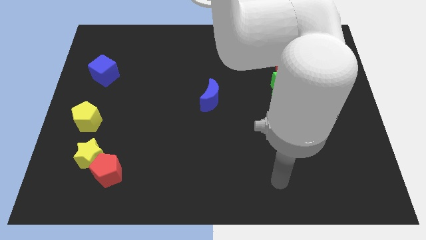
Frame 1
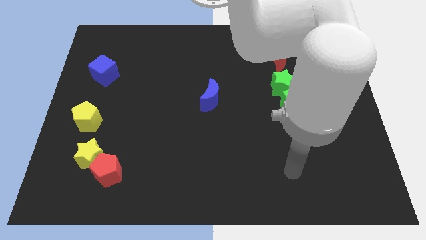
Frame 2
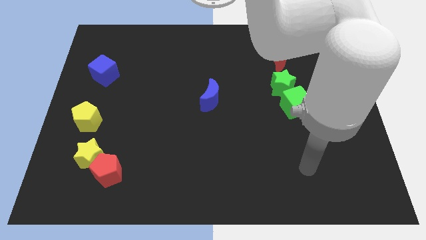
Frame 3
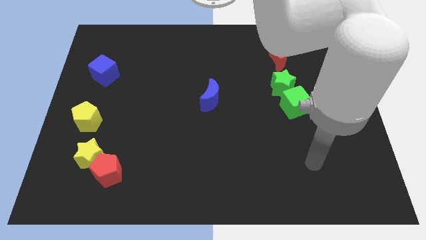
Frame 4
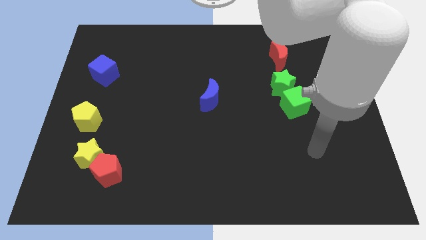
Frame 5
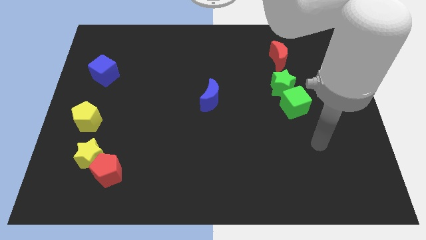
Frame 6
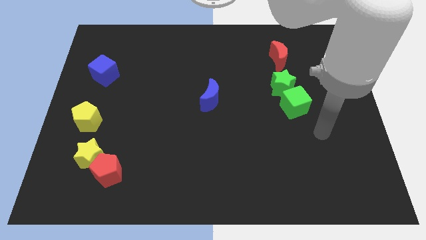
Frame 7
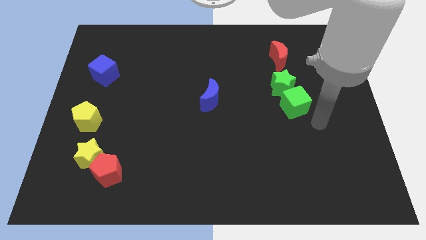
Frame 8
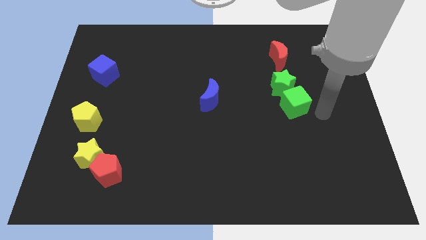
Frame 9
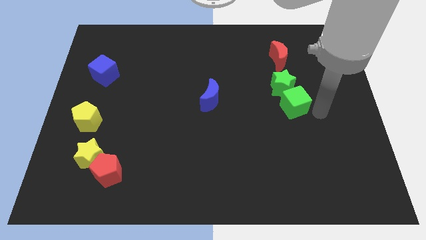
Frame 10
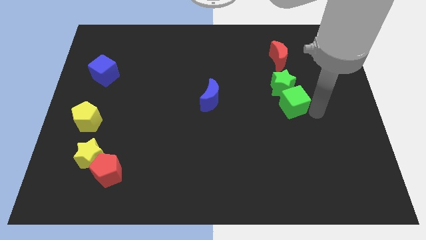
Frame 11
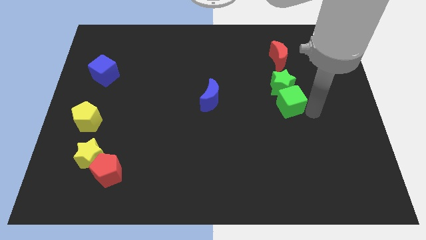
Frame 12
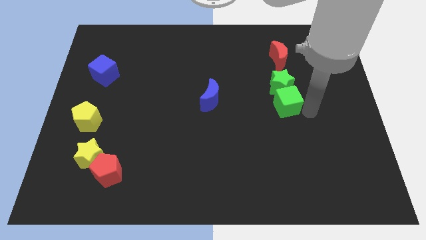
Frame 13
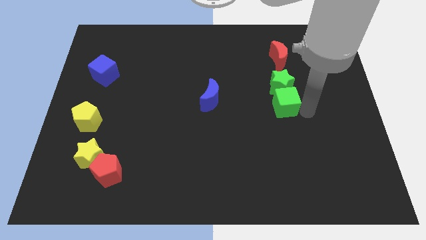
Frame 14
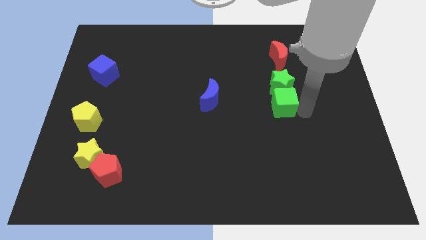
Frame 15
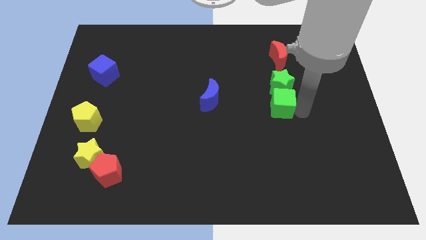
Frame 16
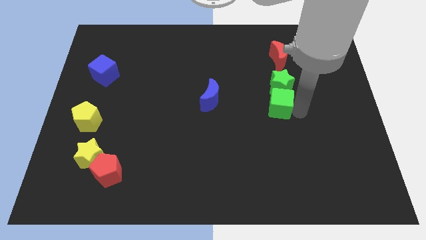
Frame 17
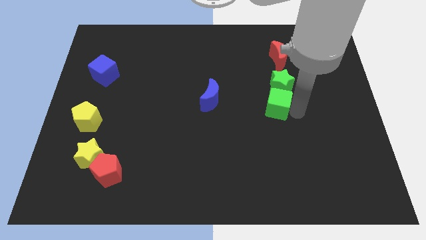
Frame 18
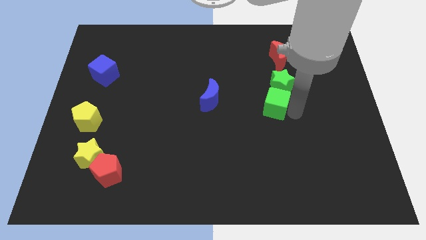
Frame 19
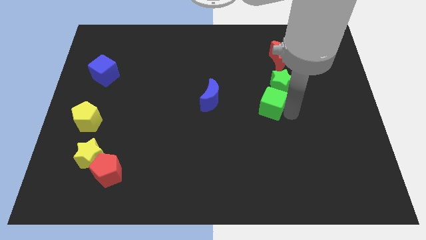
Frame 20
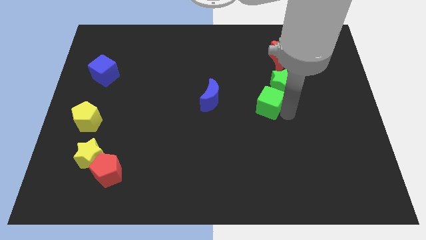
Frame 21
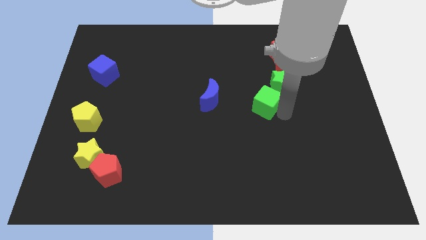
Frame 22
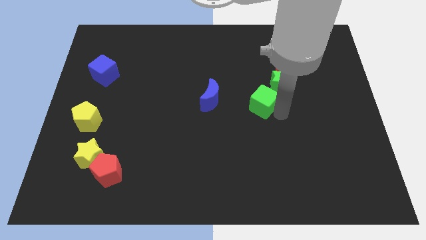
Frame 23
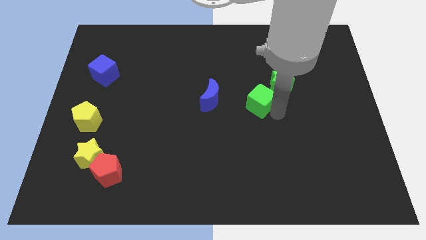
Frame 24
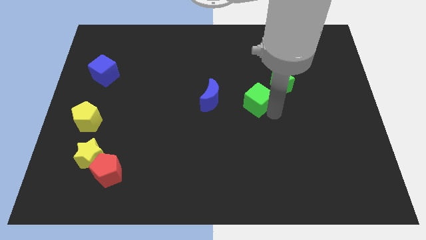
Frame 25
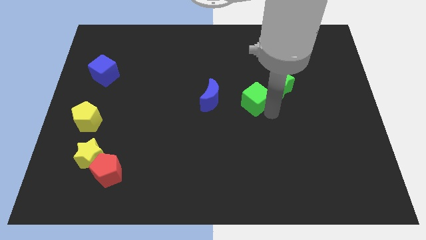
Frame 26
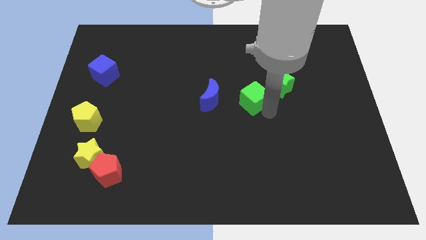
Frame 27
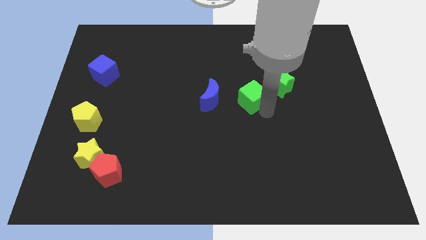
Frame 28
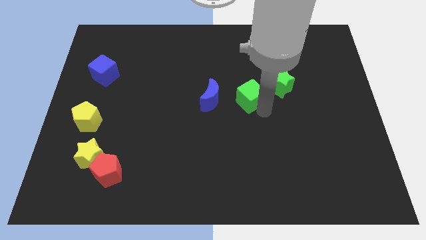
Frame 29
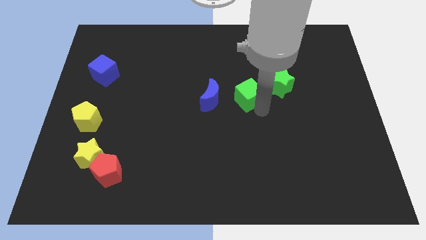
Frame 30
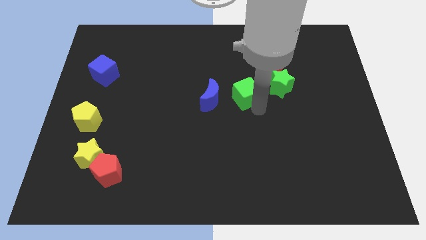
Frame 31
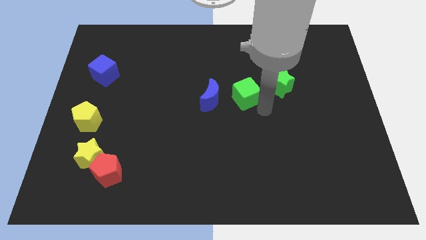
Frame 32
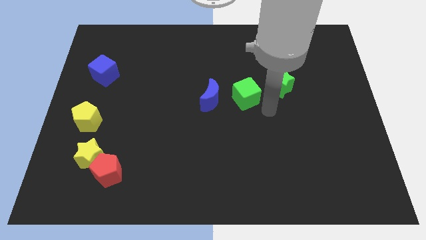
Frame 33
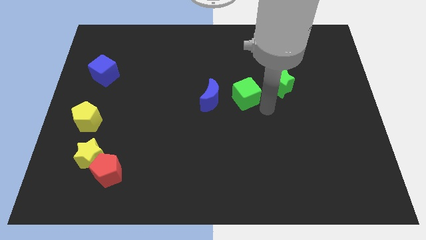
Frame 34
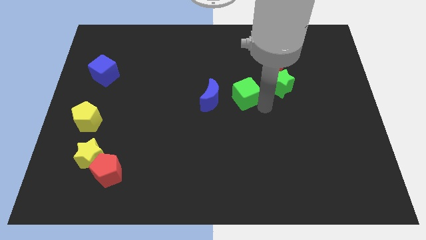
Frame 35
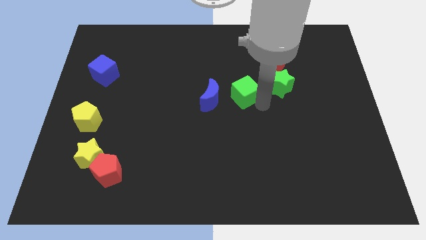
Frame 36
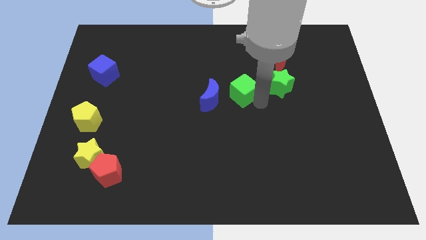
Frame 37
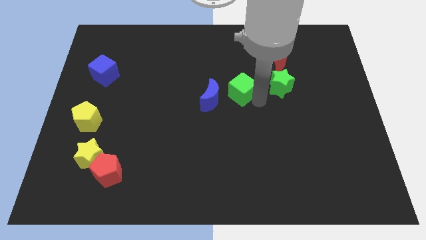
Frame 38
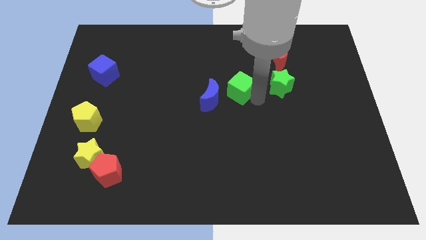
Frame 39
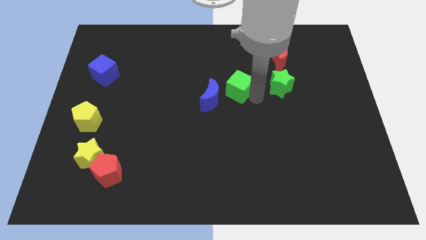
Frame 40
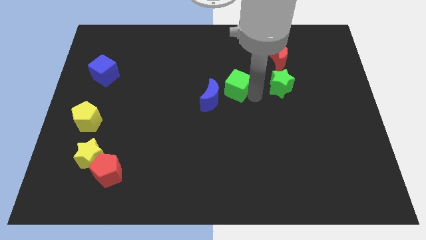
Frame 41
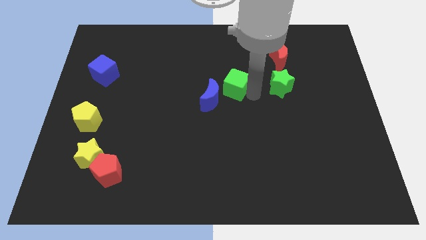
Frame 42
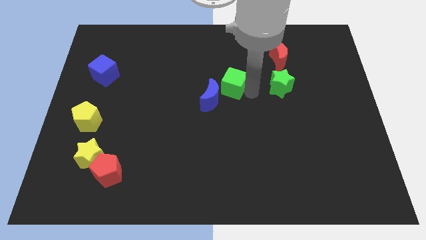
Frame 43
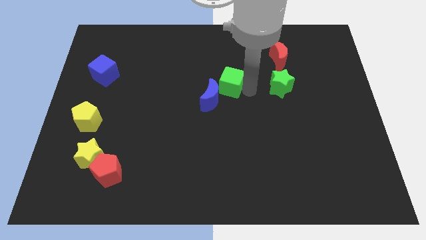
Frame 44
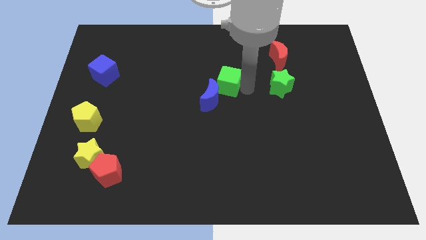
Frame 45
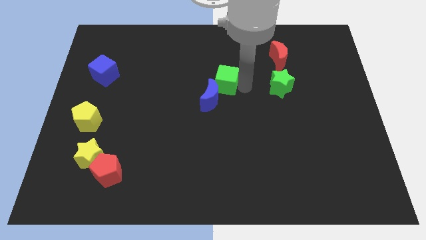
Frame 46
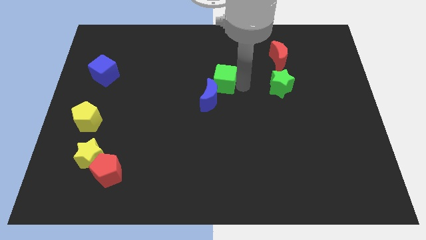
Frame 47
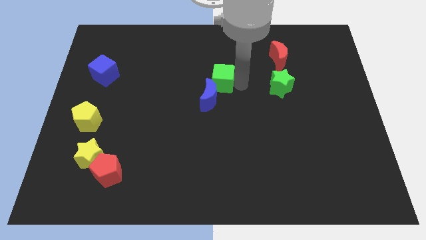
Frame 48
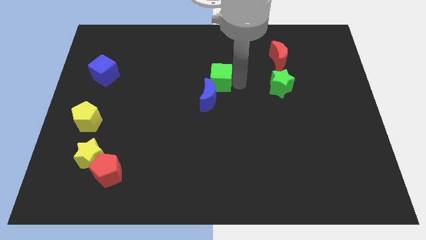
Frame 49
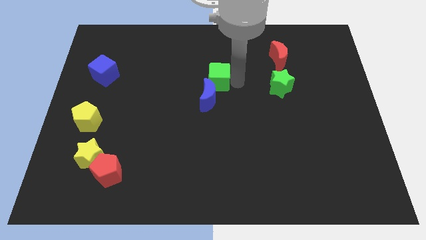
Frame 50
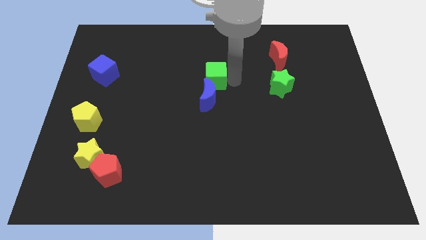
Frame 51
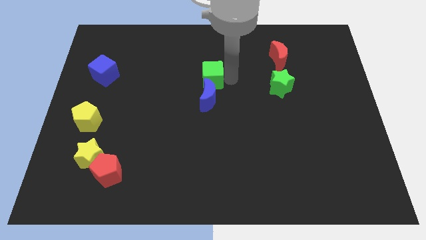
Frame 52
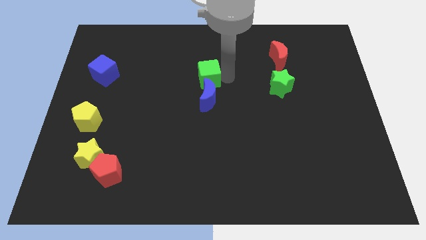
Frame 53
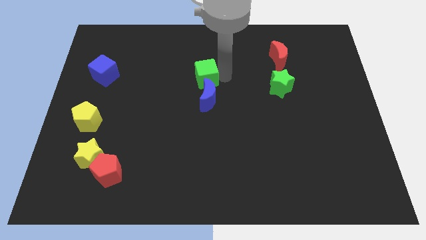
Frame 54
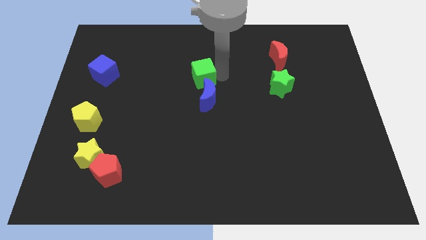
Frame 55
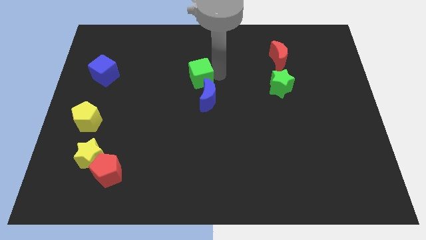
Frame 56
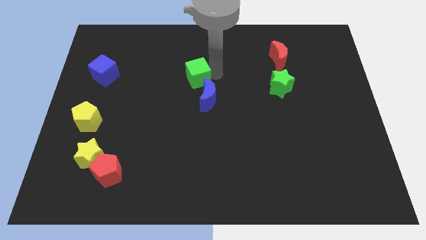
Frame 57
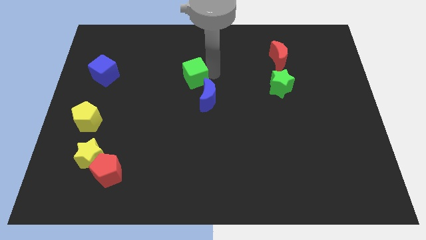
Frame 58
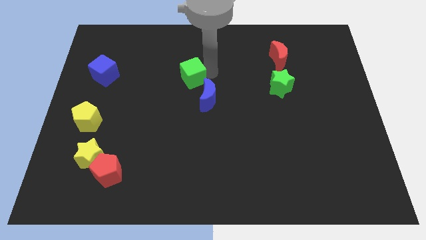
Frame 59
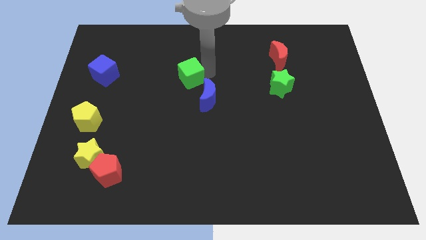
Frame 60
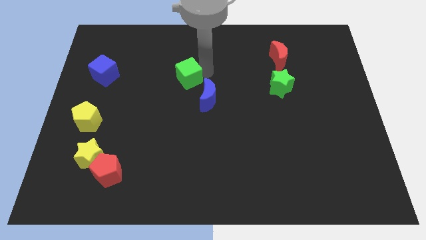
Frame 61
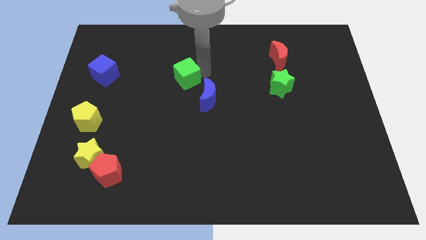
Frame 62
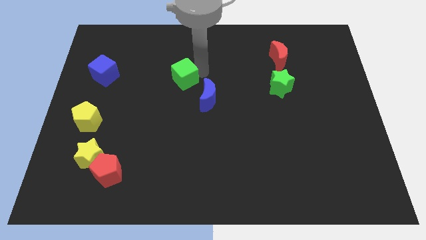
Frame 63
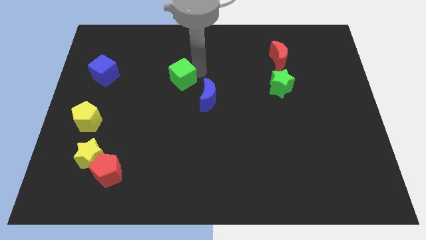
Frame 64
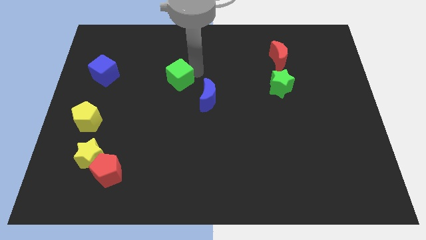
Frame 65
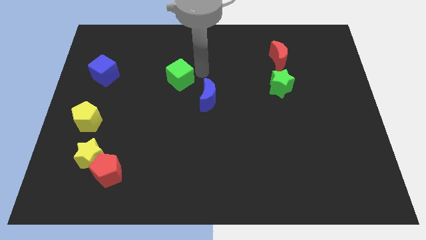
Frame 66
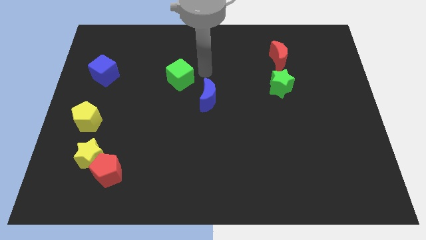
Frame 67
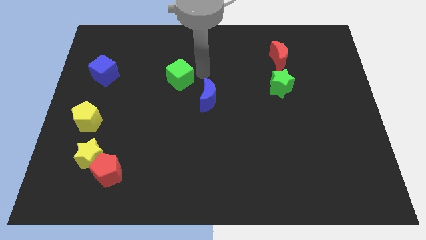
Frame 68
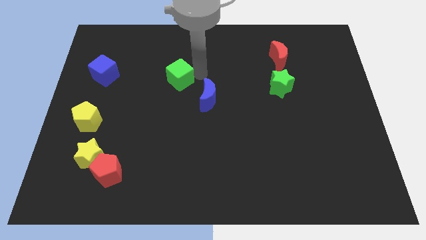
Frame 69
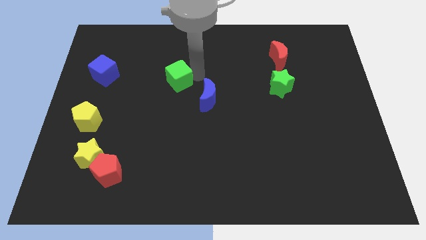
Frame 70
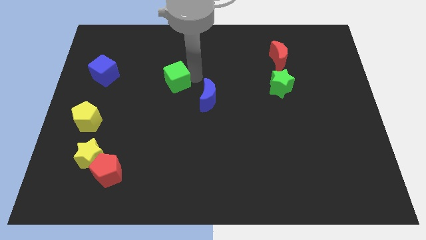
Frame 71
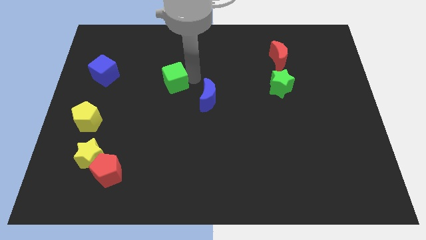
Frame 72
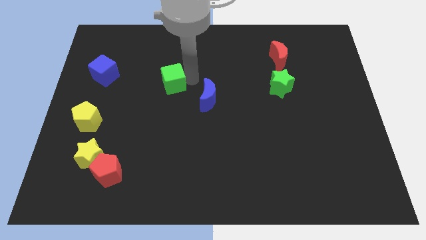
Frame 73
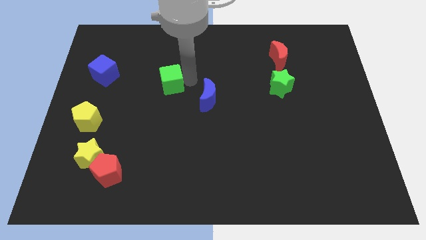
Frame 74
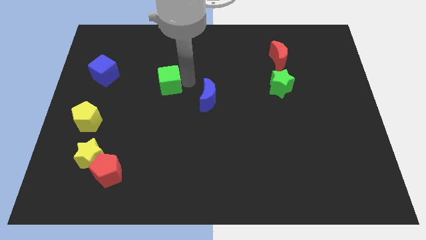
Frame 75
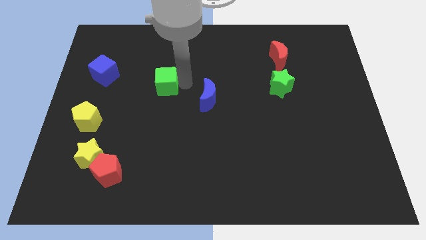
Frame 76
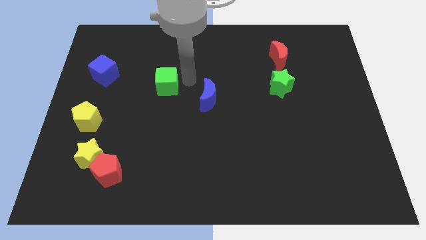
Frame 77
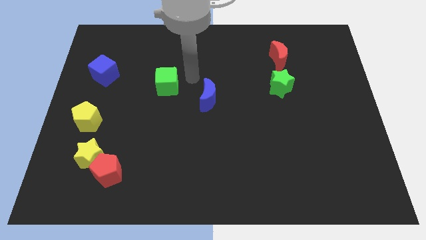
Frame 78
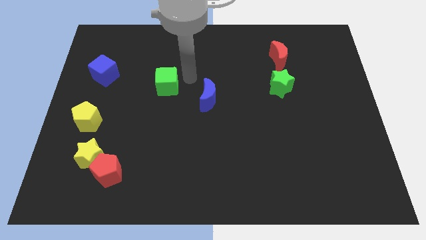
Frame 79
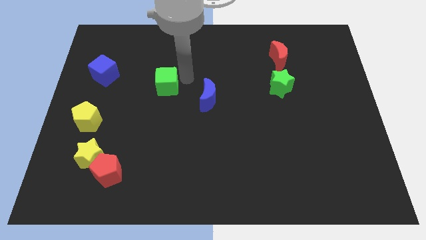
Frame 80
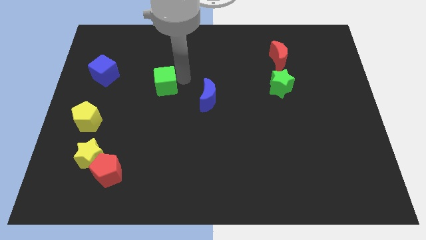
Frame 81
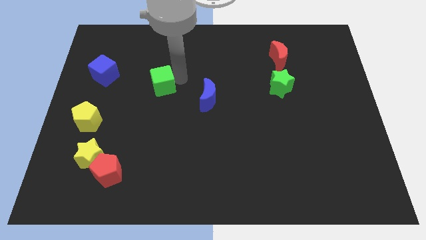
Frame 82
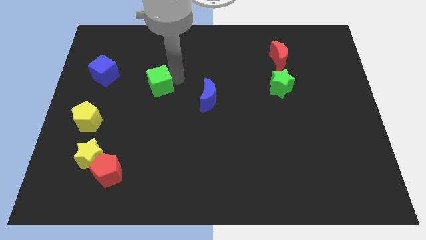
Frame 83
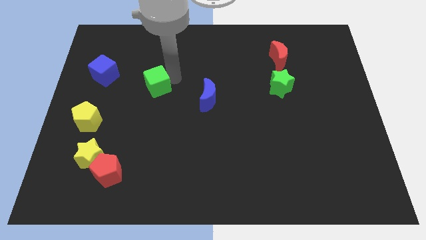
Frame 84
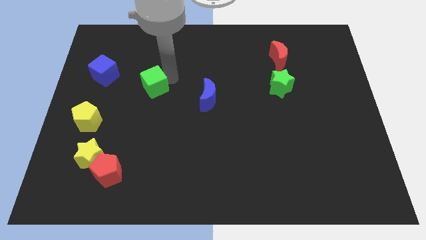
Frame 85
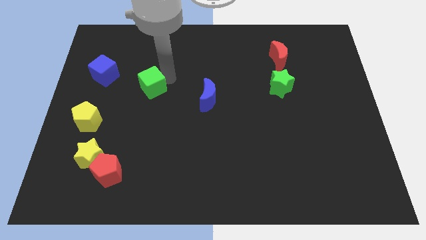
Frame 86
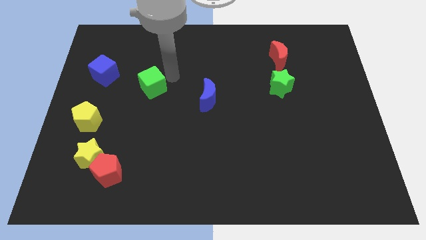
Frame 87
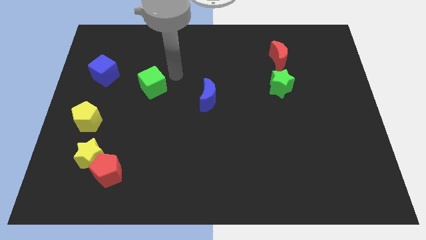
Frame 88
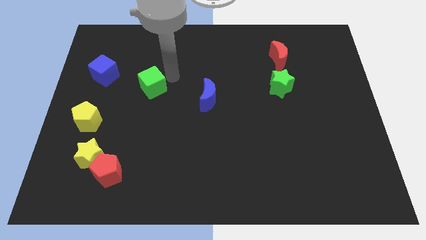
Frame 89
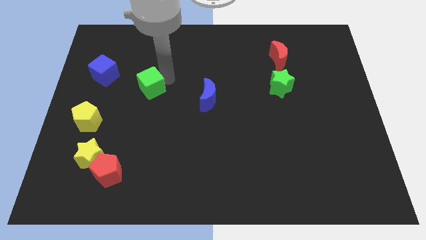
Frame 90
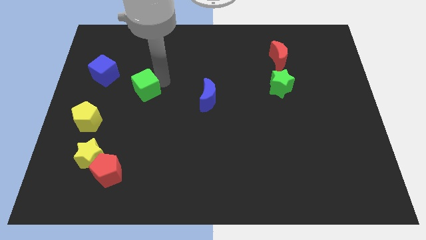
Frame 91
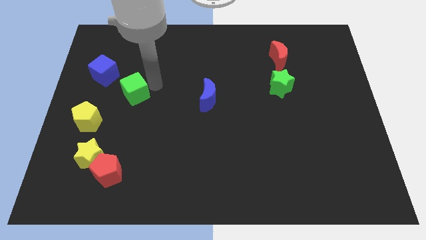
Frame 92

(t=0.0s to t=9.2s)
slide the green cube diagonally up and to the right of the yellow pentagon
